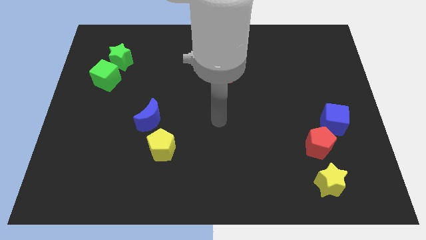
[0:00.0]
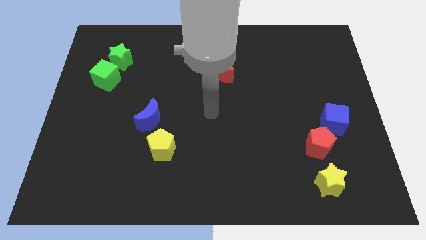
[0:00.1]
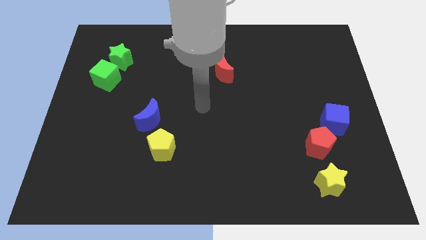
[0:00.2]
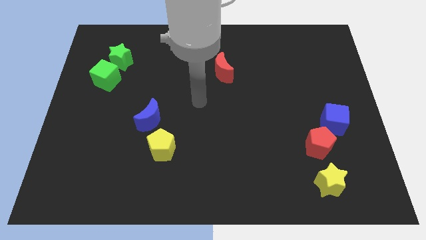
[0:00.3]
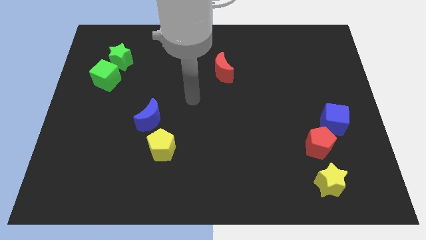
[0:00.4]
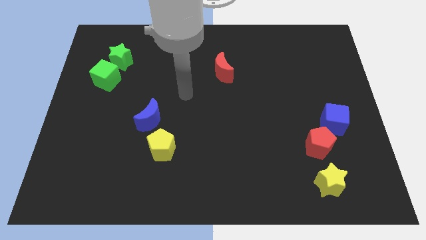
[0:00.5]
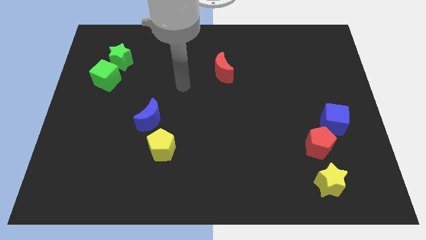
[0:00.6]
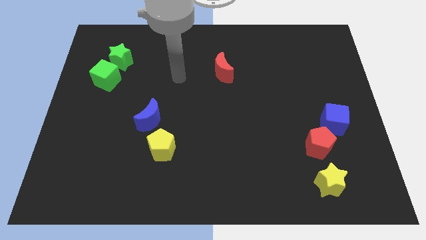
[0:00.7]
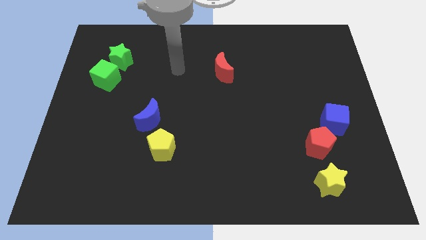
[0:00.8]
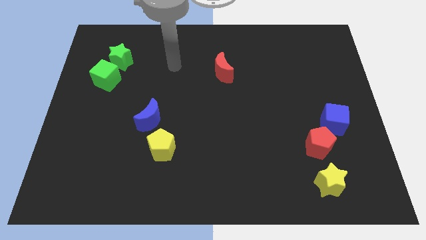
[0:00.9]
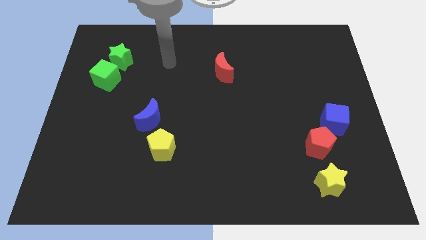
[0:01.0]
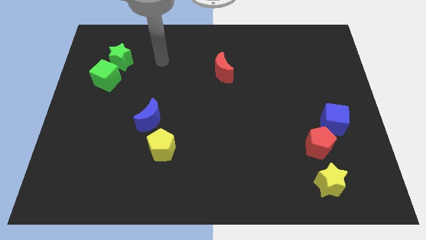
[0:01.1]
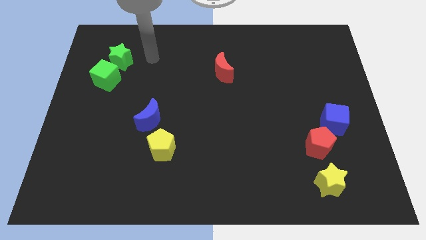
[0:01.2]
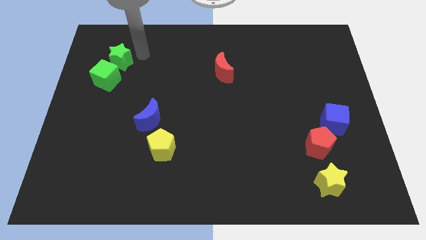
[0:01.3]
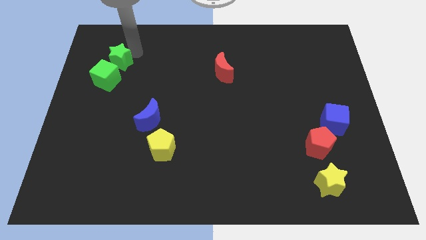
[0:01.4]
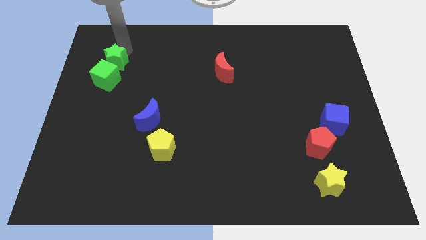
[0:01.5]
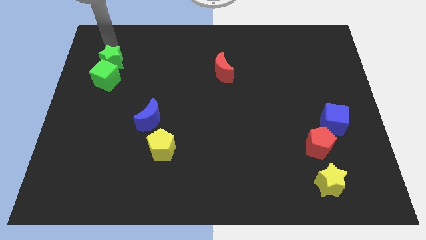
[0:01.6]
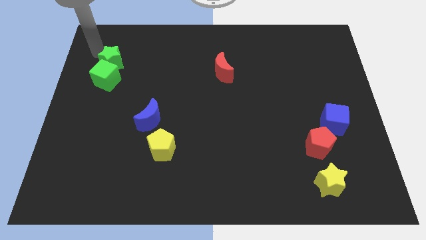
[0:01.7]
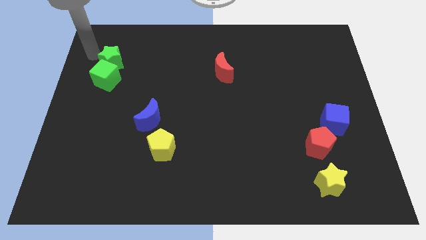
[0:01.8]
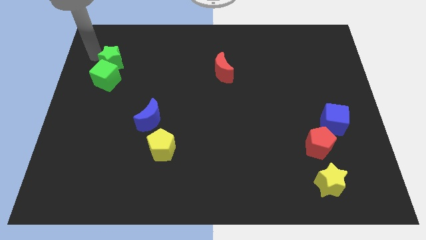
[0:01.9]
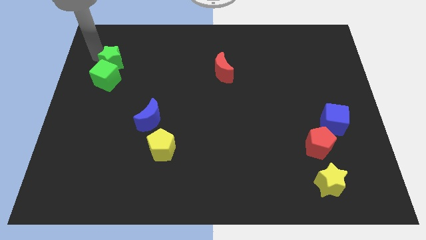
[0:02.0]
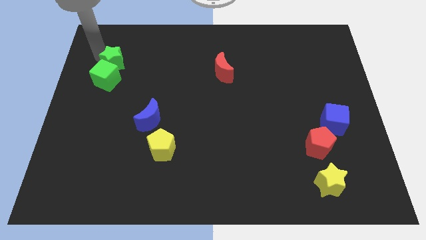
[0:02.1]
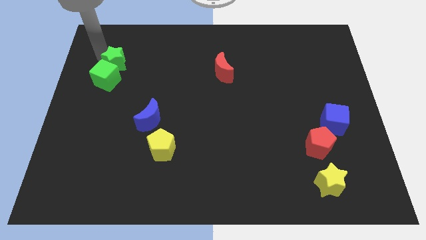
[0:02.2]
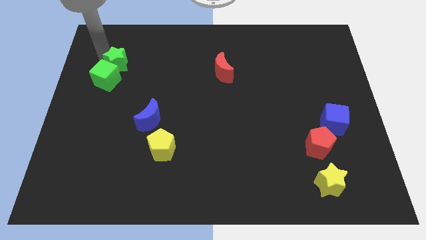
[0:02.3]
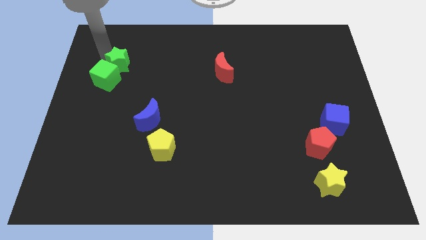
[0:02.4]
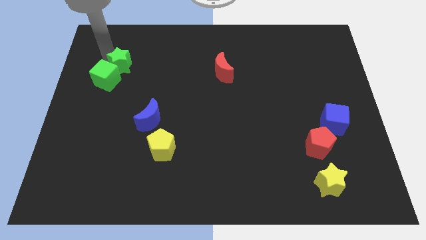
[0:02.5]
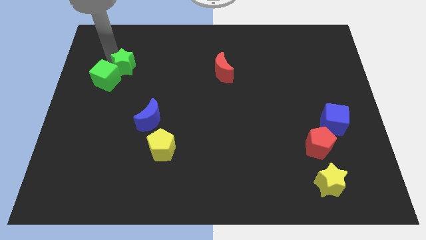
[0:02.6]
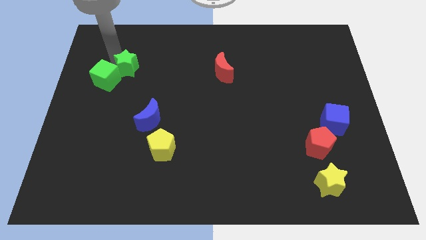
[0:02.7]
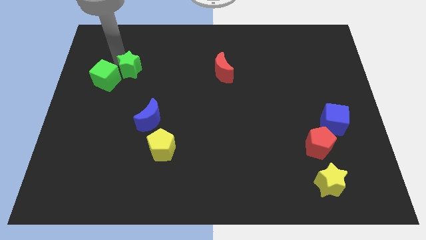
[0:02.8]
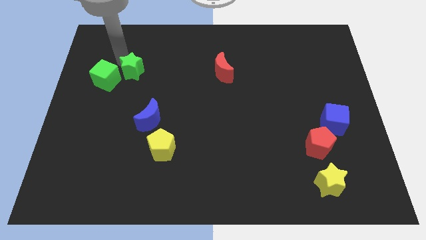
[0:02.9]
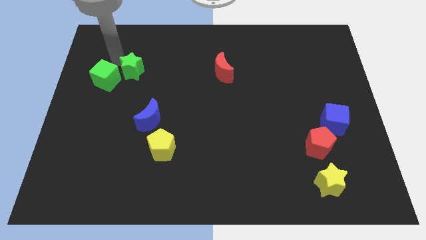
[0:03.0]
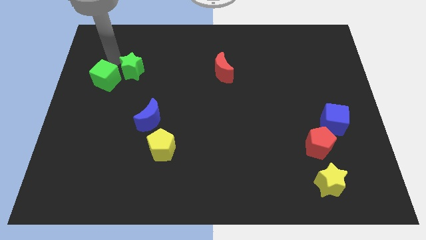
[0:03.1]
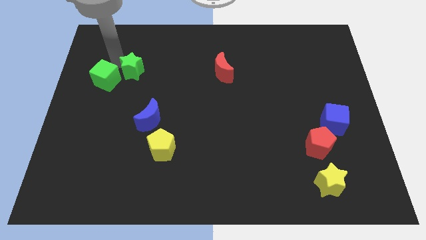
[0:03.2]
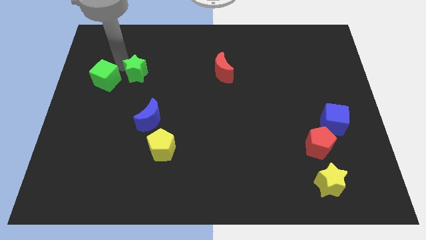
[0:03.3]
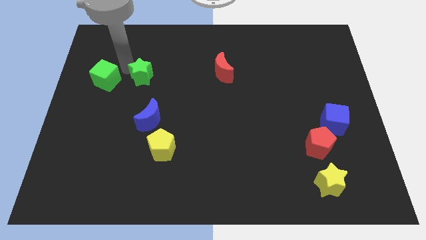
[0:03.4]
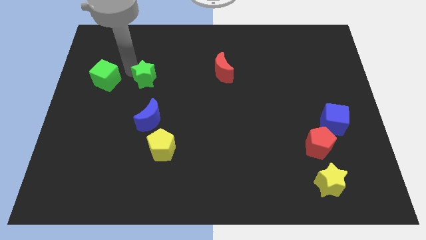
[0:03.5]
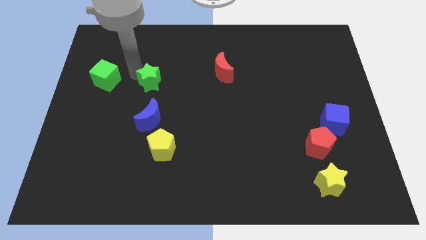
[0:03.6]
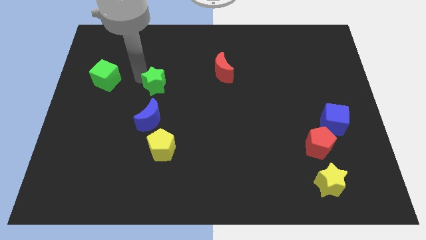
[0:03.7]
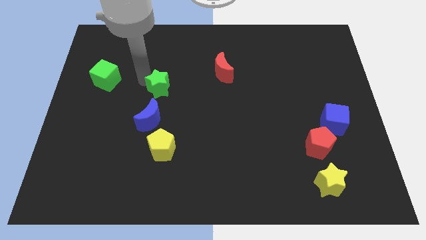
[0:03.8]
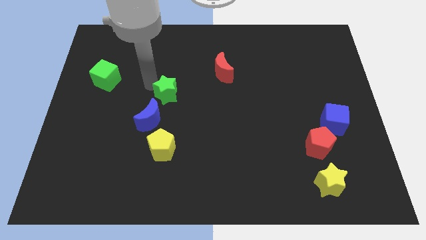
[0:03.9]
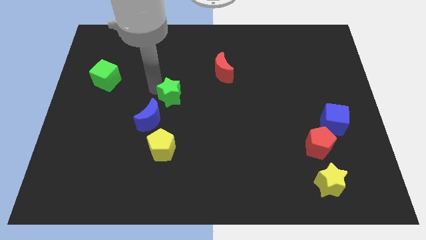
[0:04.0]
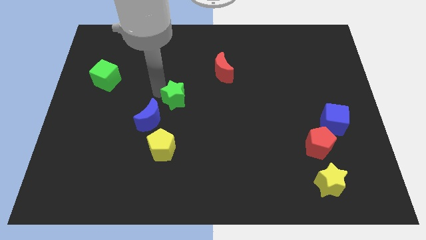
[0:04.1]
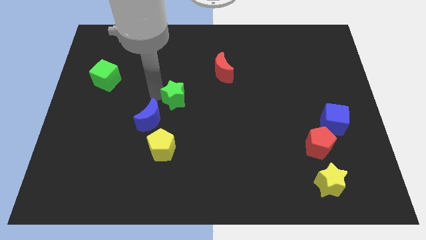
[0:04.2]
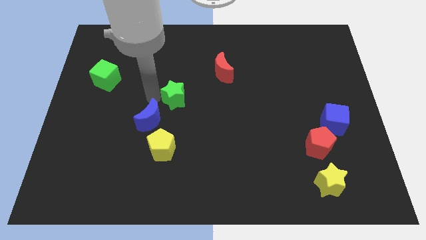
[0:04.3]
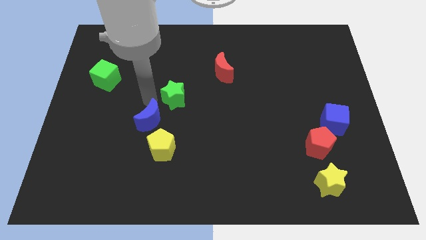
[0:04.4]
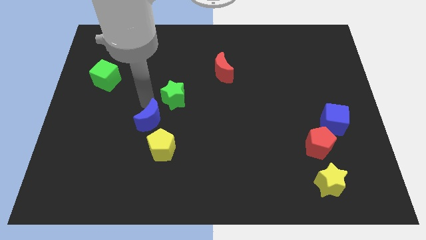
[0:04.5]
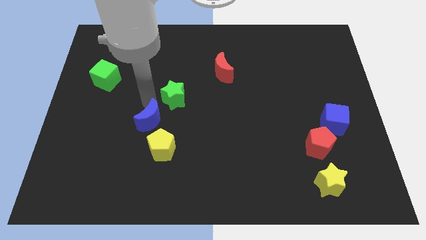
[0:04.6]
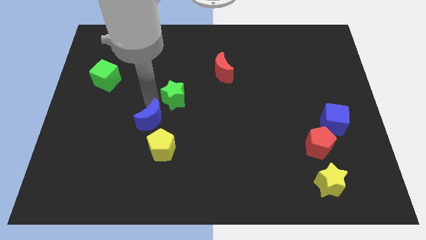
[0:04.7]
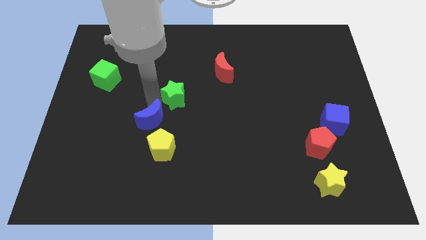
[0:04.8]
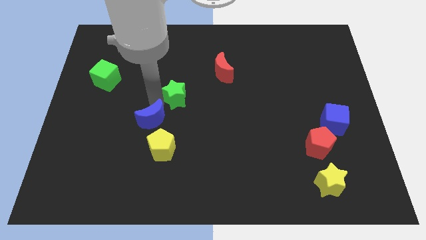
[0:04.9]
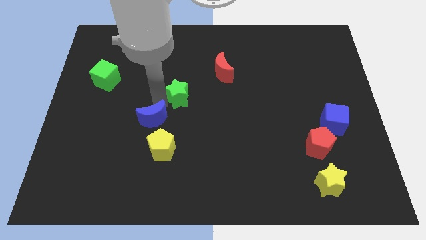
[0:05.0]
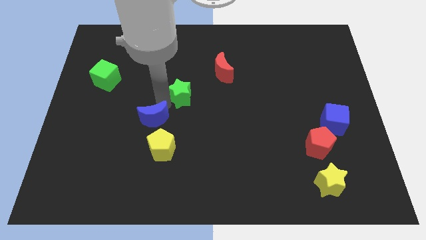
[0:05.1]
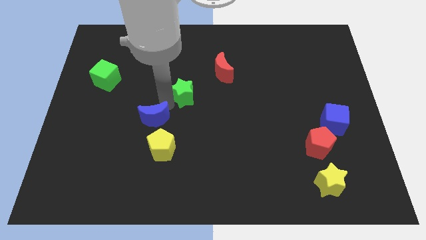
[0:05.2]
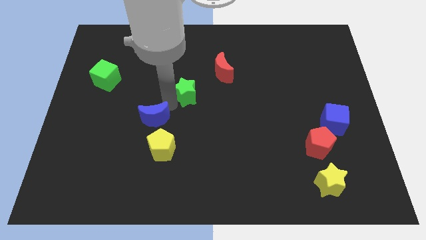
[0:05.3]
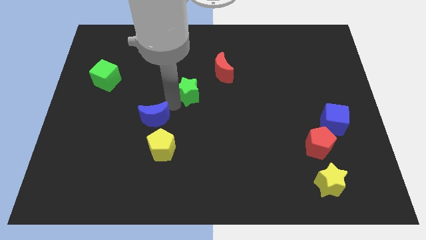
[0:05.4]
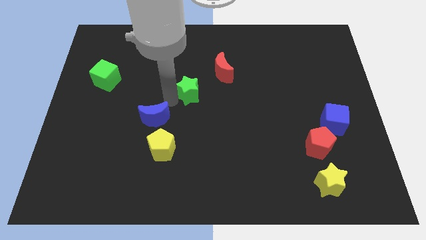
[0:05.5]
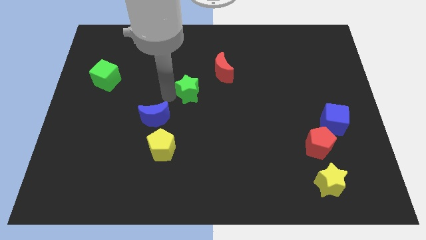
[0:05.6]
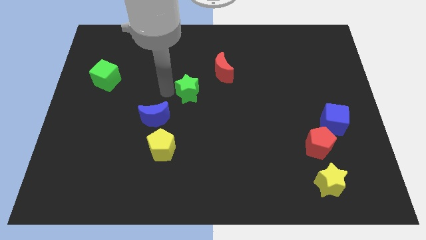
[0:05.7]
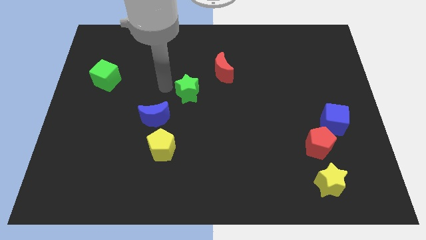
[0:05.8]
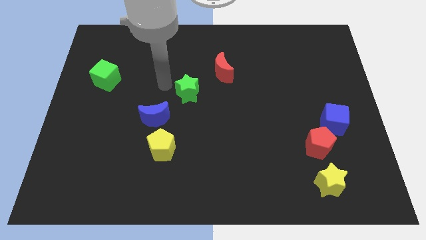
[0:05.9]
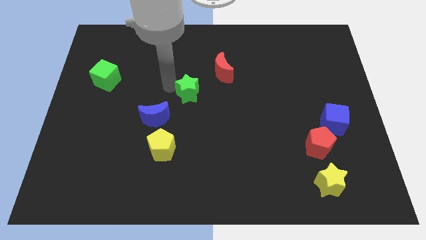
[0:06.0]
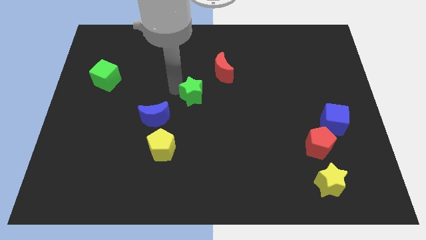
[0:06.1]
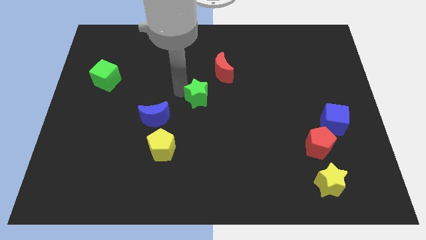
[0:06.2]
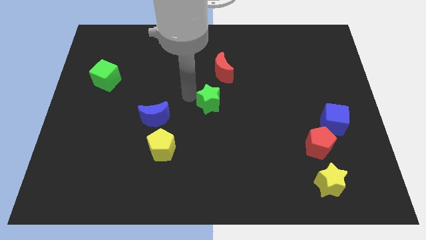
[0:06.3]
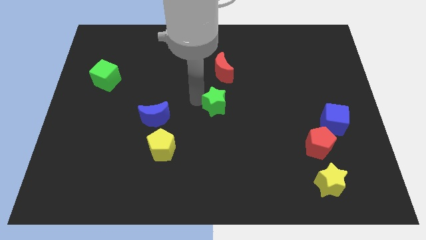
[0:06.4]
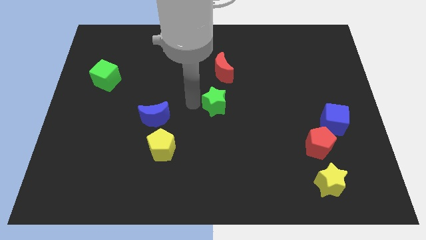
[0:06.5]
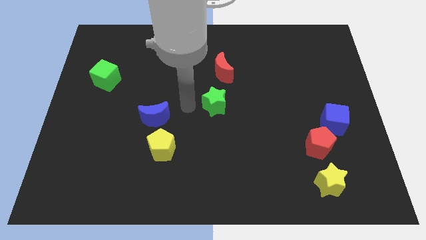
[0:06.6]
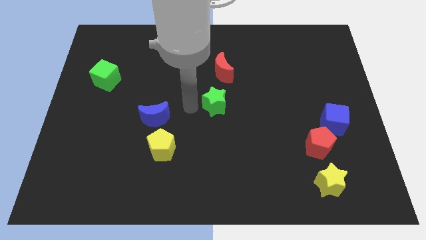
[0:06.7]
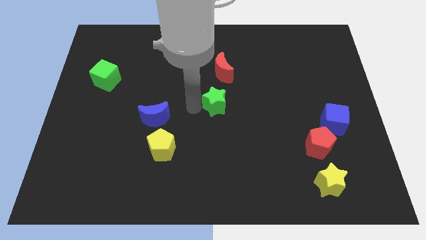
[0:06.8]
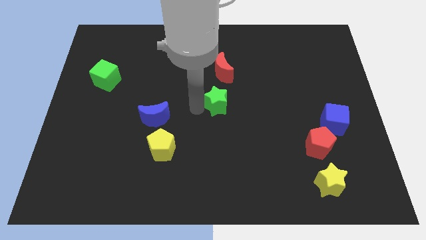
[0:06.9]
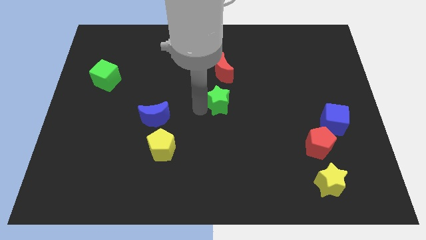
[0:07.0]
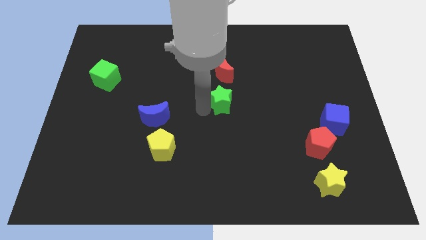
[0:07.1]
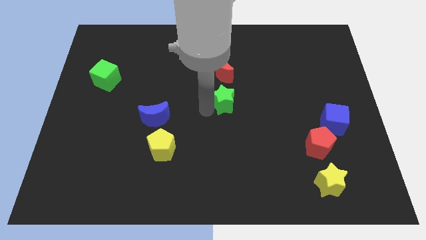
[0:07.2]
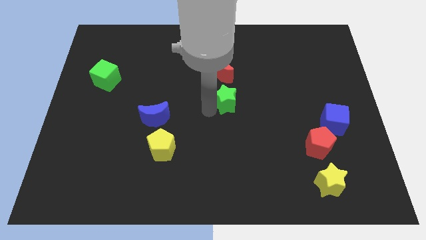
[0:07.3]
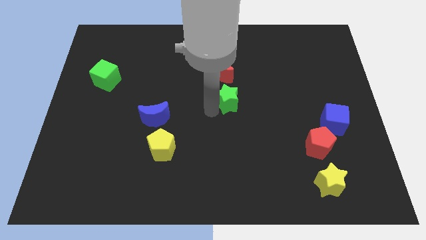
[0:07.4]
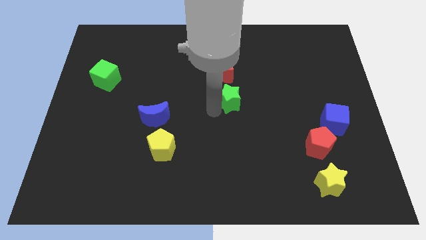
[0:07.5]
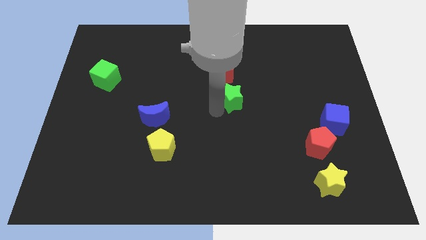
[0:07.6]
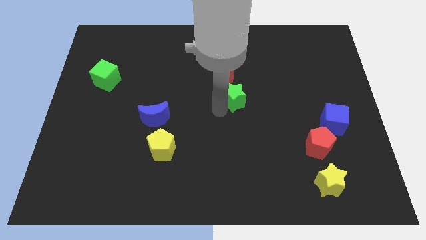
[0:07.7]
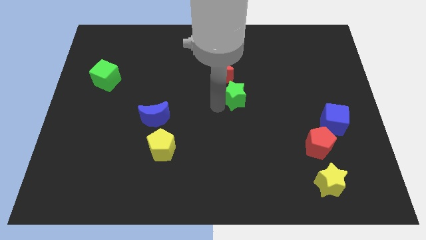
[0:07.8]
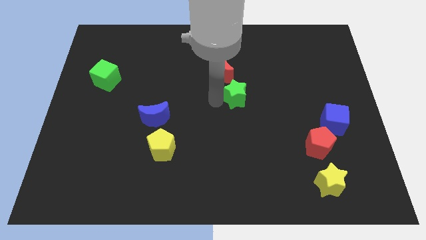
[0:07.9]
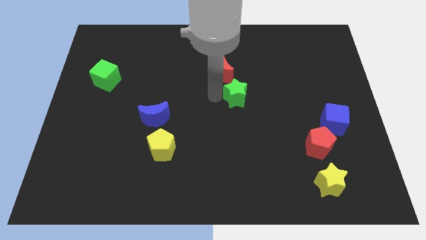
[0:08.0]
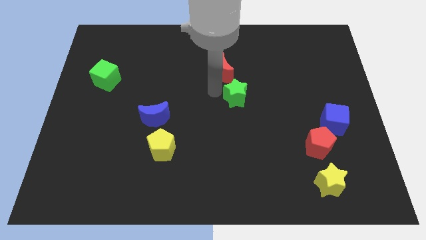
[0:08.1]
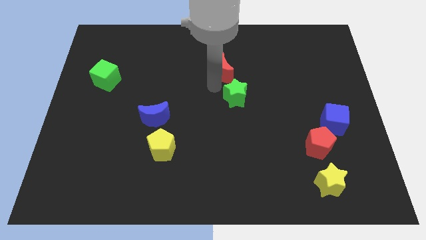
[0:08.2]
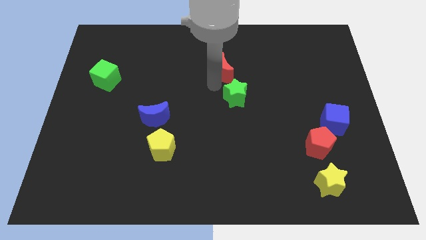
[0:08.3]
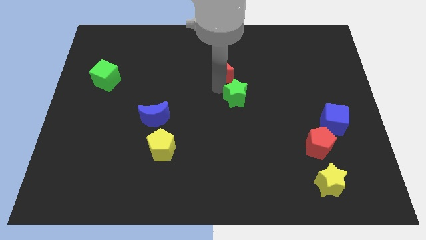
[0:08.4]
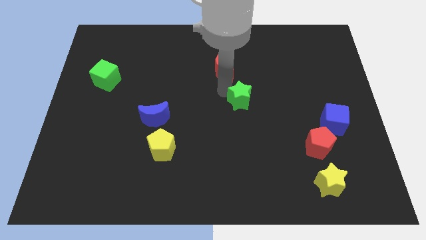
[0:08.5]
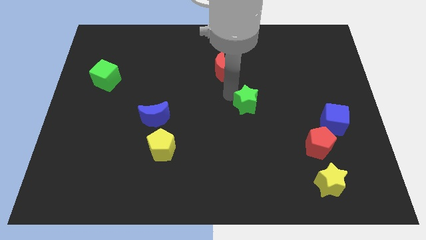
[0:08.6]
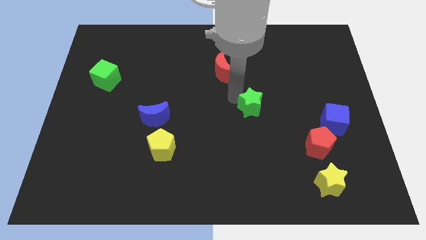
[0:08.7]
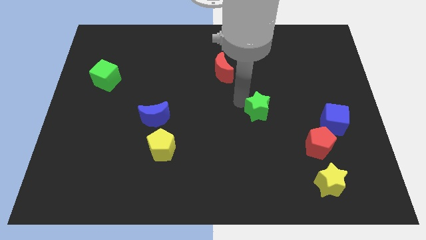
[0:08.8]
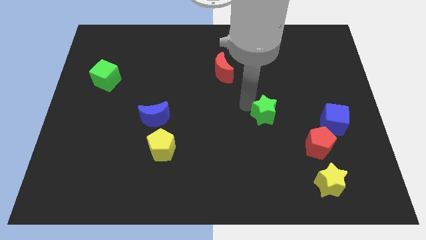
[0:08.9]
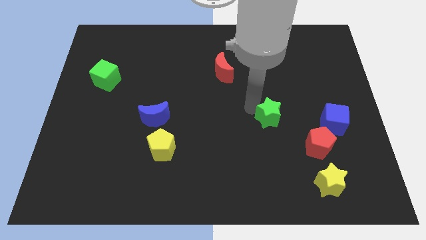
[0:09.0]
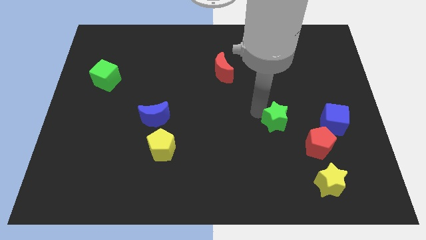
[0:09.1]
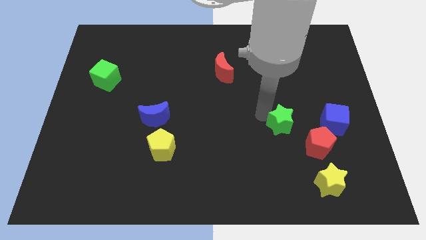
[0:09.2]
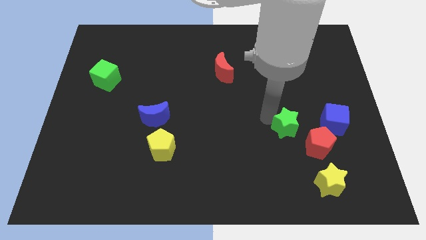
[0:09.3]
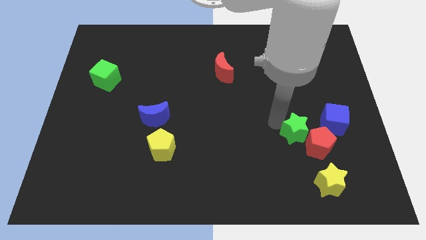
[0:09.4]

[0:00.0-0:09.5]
push the green star next to the red pentagon
